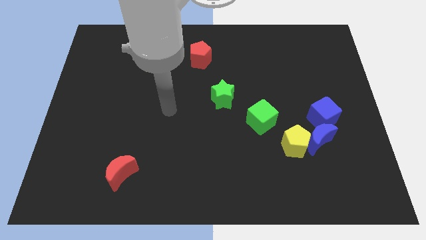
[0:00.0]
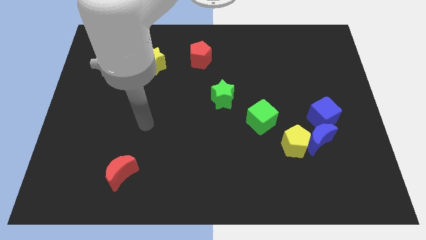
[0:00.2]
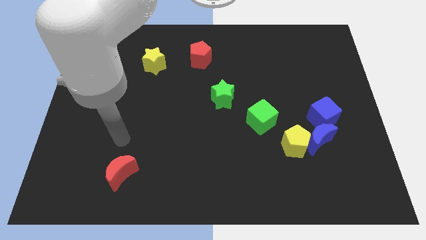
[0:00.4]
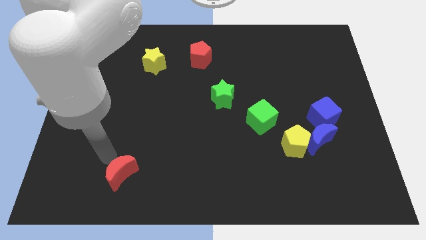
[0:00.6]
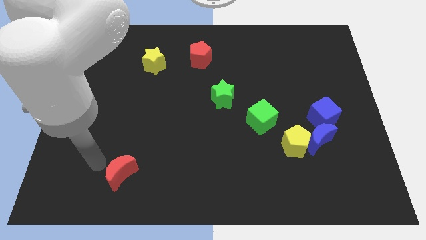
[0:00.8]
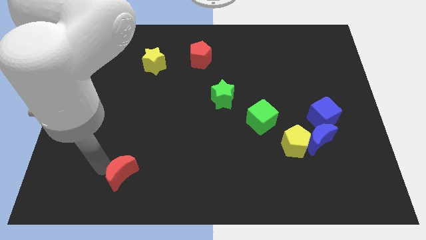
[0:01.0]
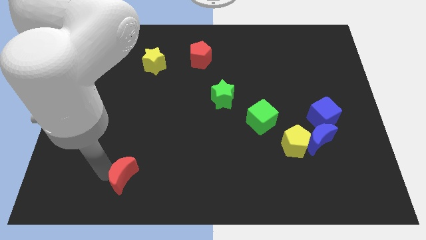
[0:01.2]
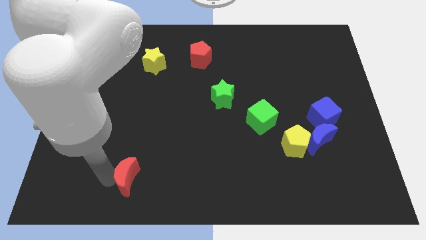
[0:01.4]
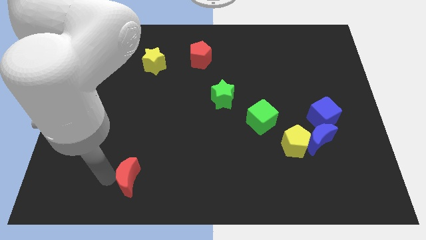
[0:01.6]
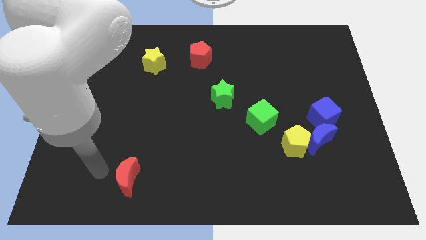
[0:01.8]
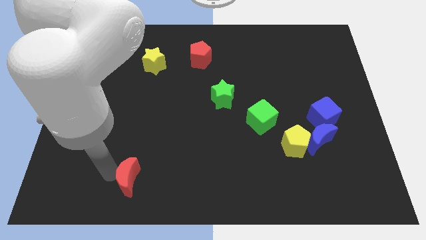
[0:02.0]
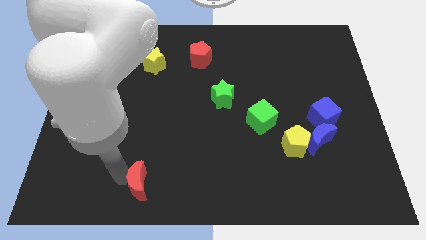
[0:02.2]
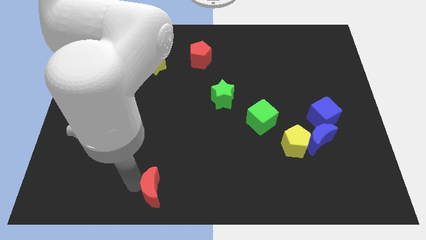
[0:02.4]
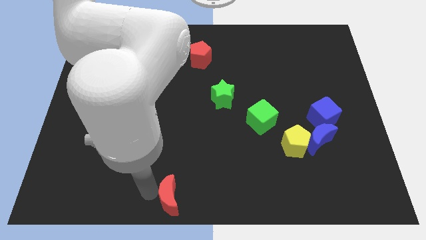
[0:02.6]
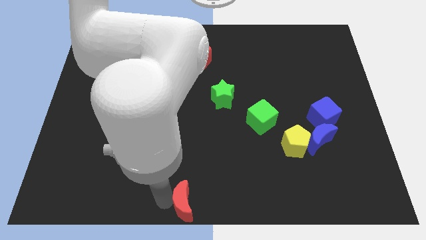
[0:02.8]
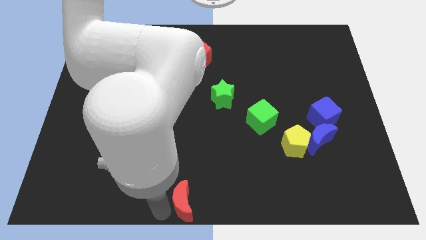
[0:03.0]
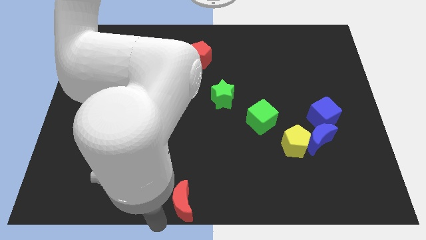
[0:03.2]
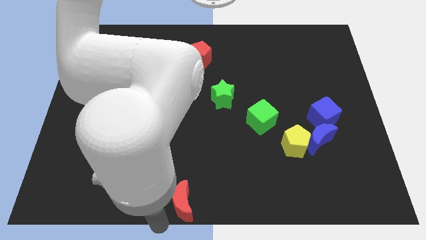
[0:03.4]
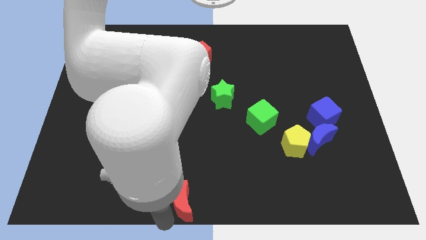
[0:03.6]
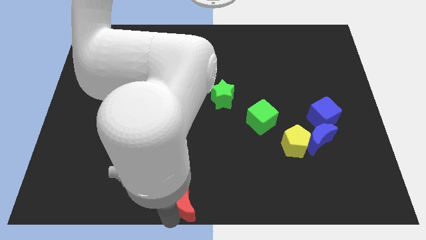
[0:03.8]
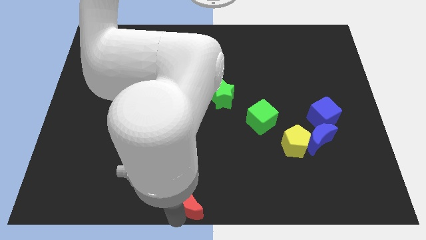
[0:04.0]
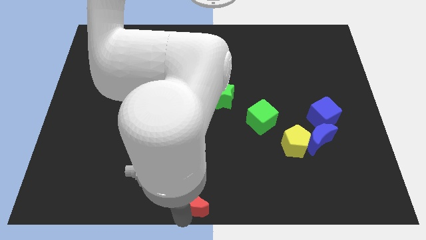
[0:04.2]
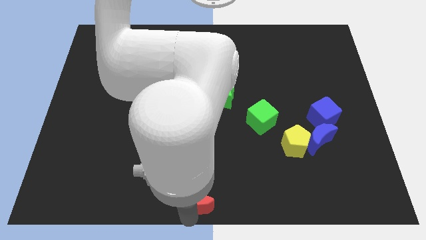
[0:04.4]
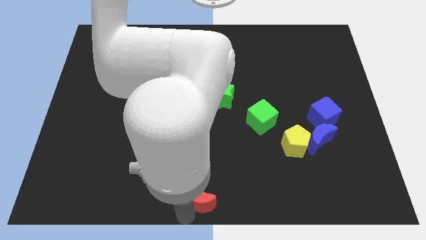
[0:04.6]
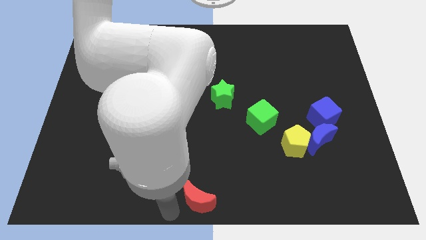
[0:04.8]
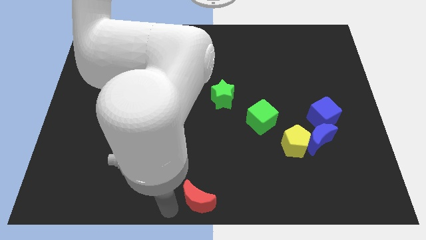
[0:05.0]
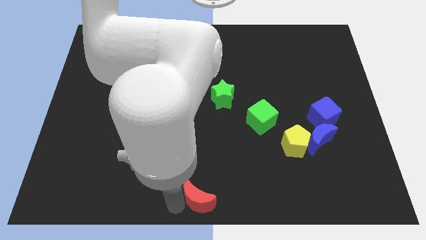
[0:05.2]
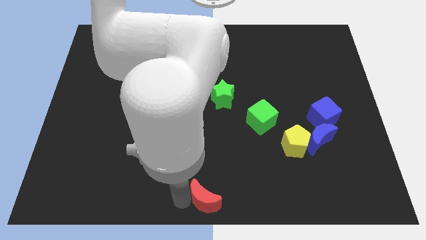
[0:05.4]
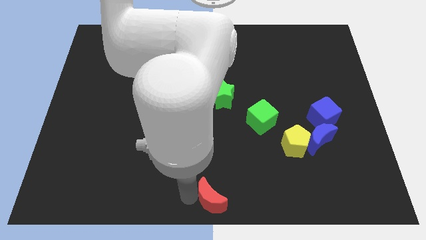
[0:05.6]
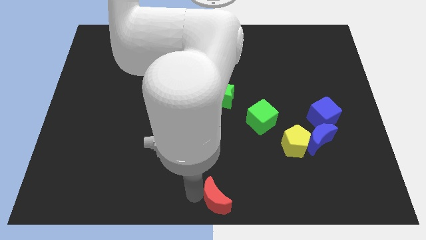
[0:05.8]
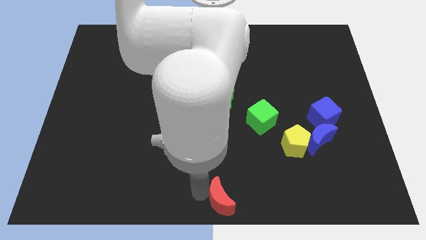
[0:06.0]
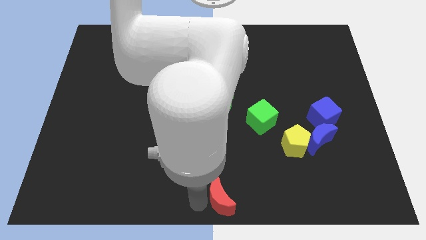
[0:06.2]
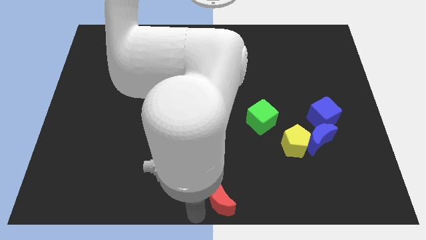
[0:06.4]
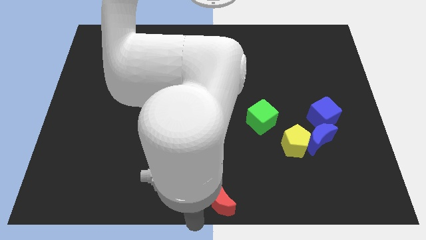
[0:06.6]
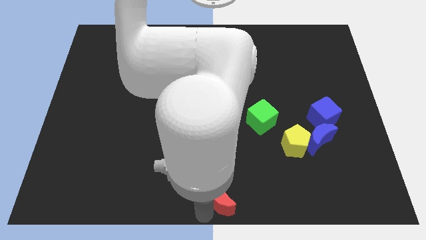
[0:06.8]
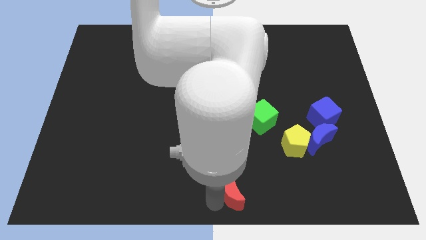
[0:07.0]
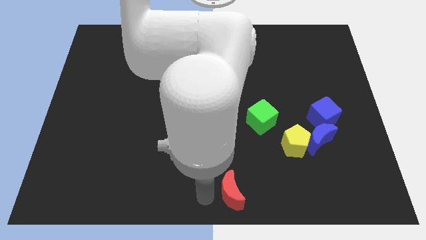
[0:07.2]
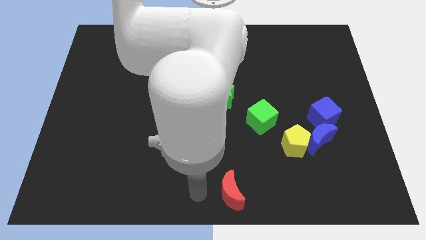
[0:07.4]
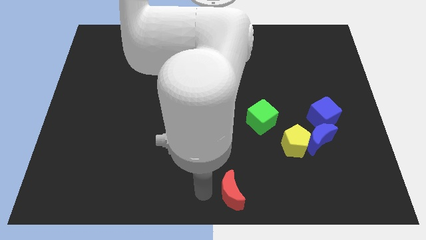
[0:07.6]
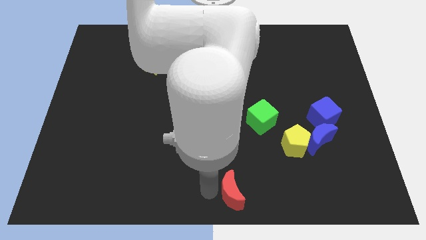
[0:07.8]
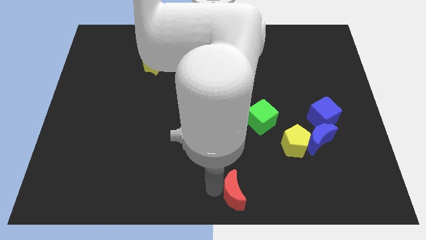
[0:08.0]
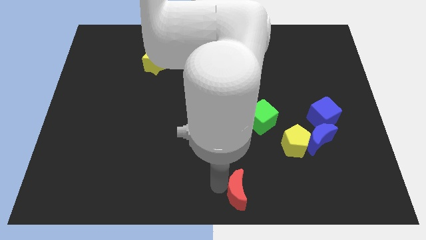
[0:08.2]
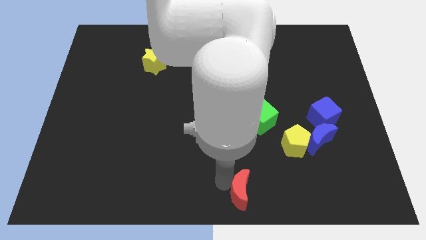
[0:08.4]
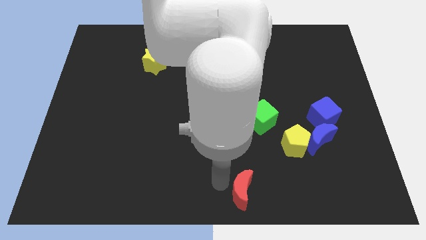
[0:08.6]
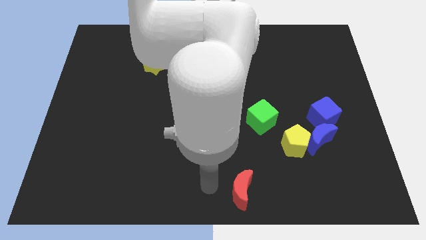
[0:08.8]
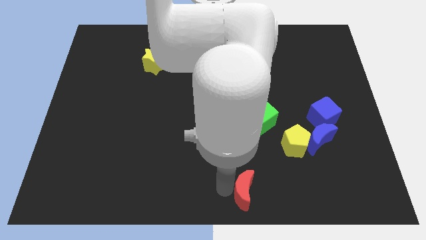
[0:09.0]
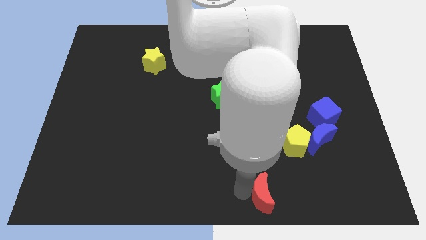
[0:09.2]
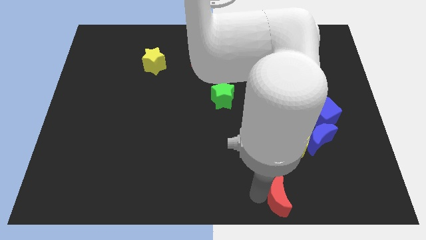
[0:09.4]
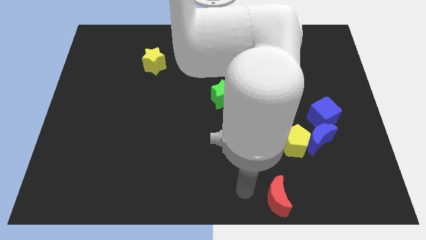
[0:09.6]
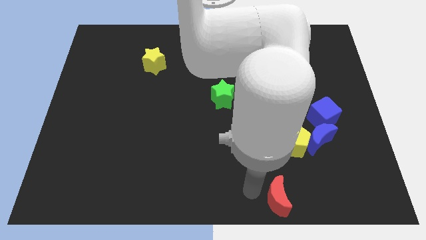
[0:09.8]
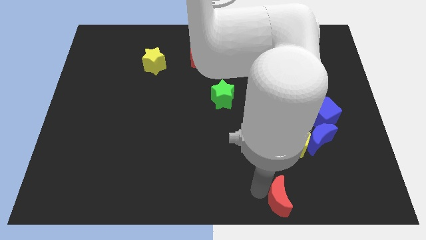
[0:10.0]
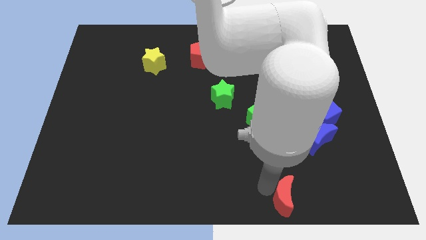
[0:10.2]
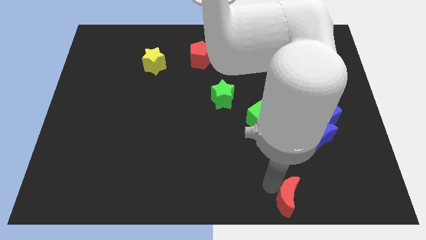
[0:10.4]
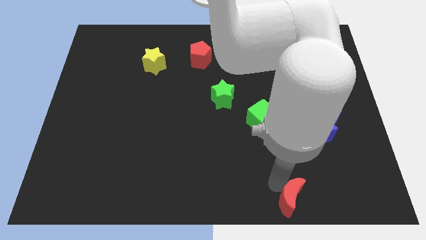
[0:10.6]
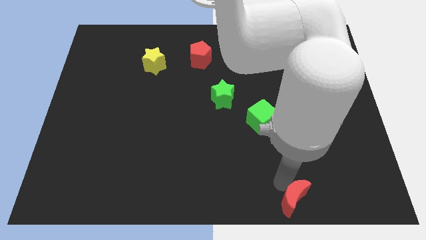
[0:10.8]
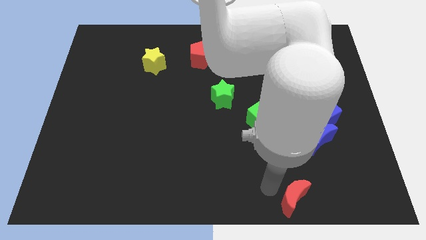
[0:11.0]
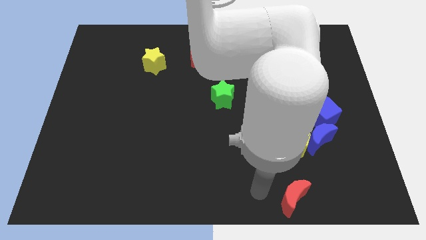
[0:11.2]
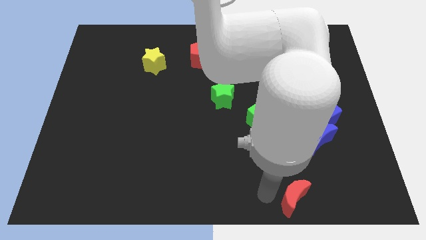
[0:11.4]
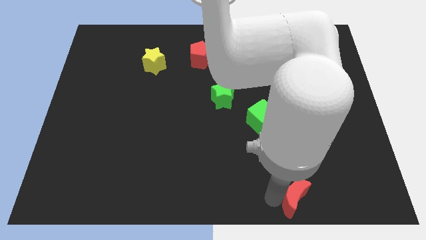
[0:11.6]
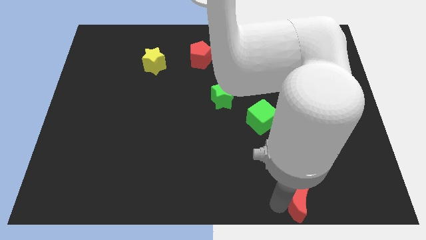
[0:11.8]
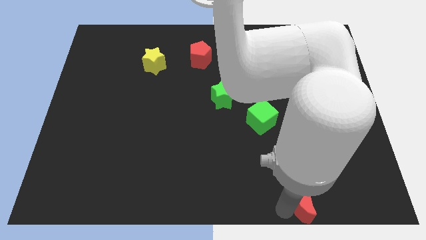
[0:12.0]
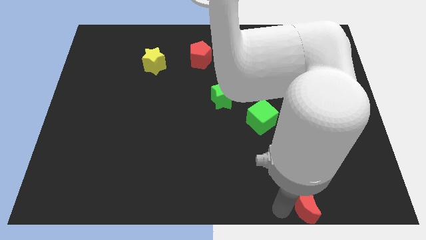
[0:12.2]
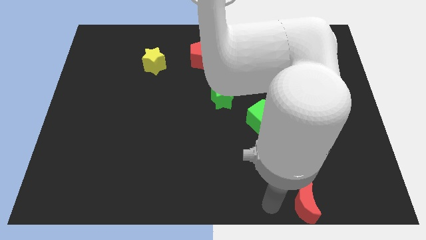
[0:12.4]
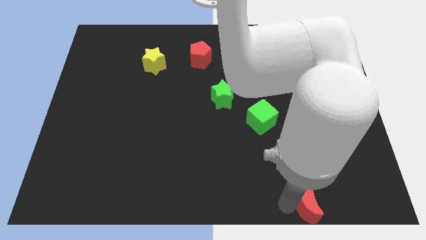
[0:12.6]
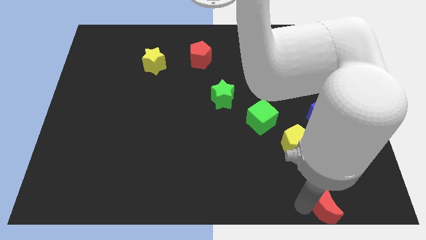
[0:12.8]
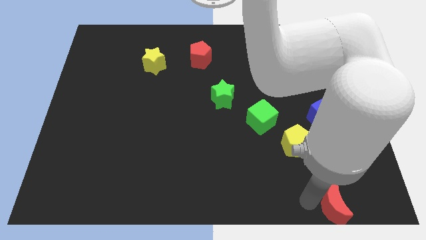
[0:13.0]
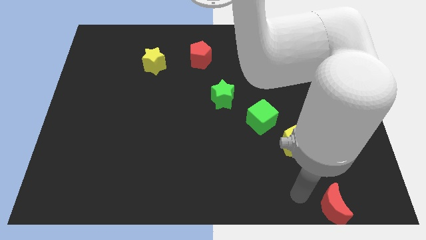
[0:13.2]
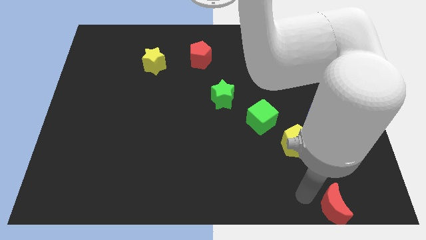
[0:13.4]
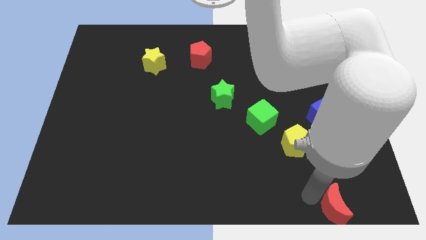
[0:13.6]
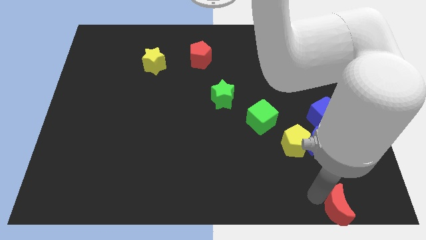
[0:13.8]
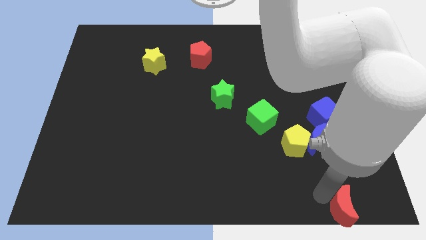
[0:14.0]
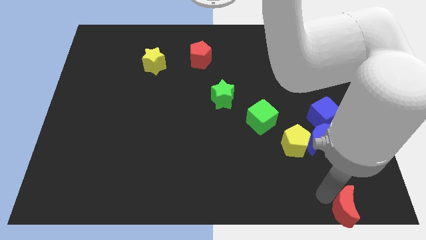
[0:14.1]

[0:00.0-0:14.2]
push the red moon to the bottom right corner
